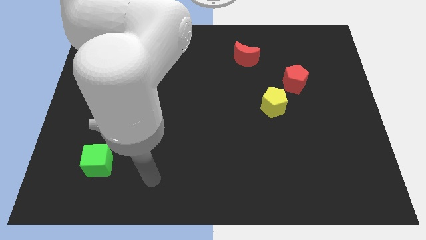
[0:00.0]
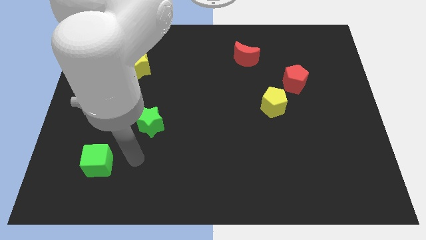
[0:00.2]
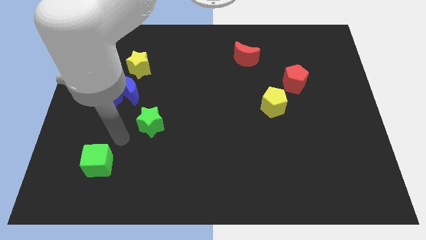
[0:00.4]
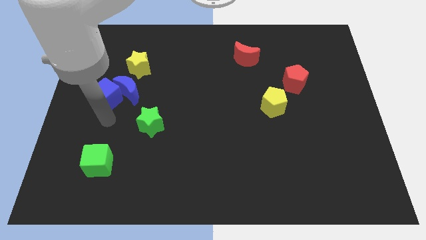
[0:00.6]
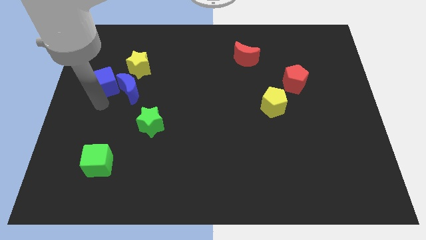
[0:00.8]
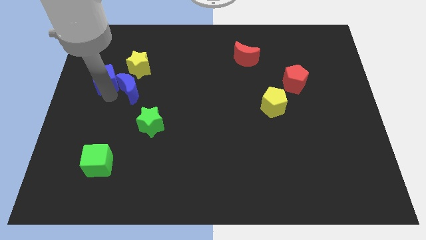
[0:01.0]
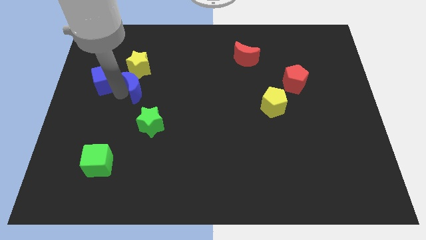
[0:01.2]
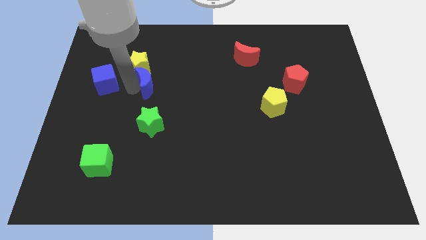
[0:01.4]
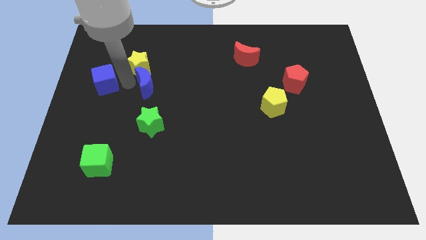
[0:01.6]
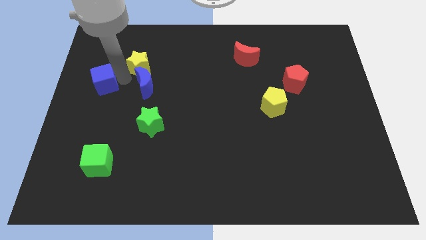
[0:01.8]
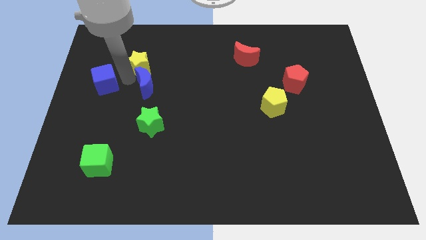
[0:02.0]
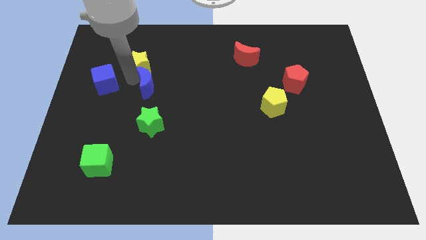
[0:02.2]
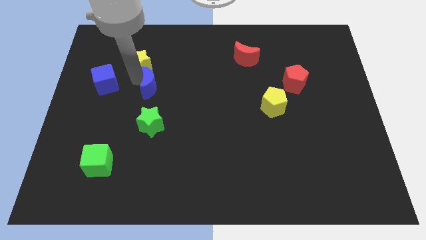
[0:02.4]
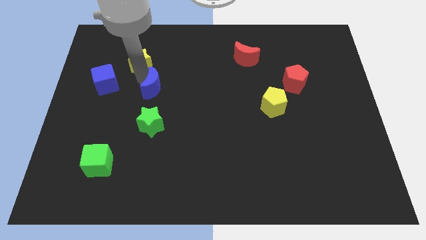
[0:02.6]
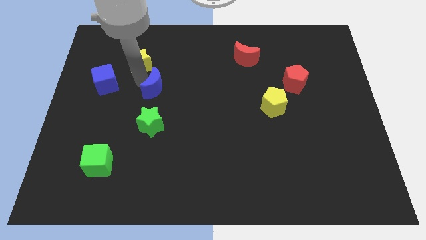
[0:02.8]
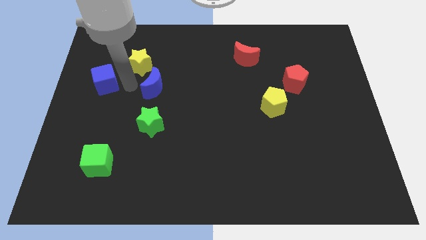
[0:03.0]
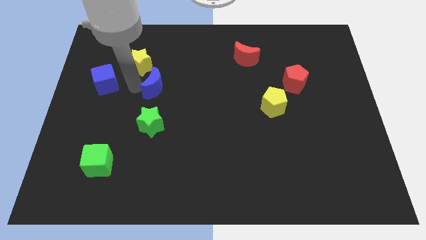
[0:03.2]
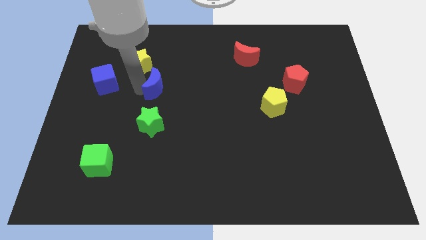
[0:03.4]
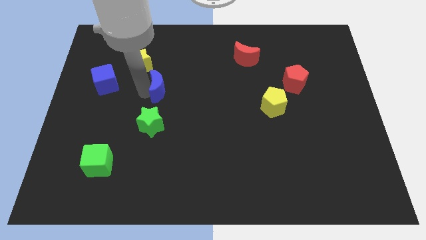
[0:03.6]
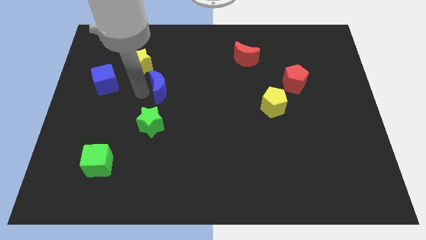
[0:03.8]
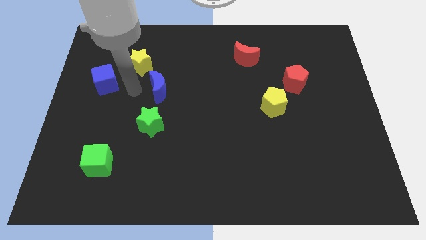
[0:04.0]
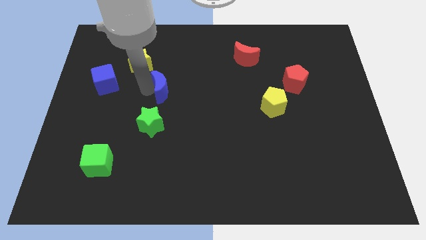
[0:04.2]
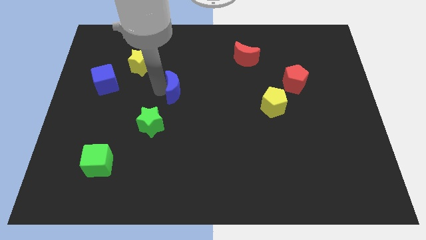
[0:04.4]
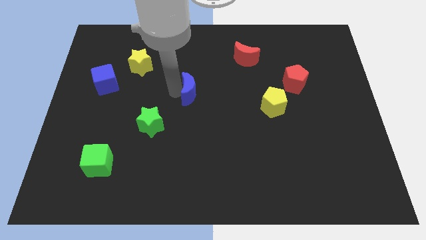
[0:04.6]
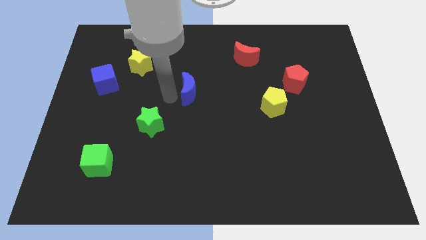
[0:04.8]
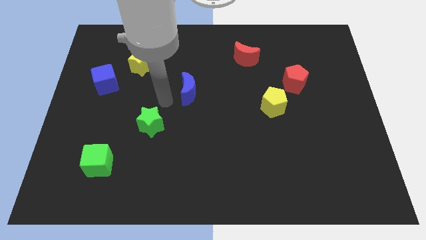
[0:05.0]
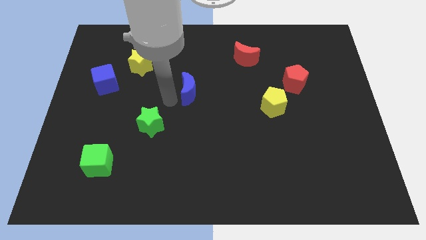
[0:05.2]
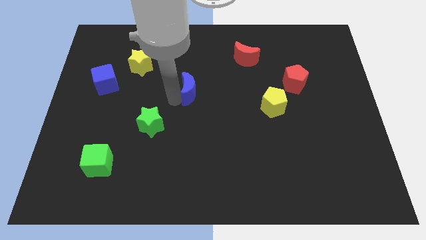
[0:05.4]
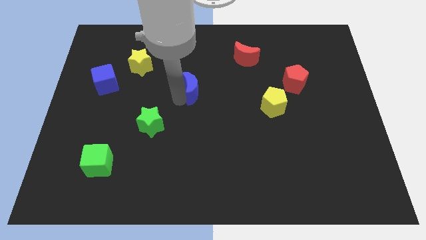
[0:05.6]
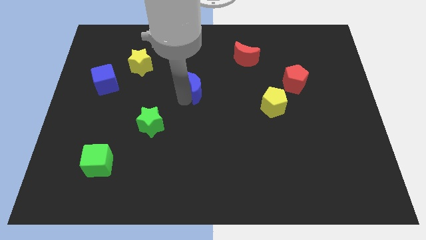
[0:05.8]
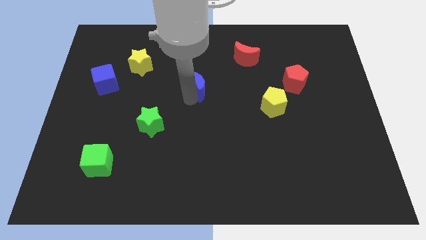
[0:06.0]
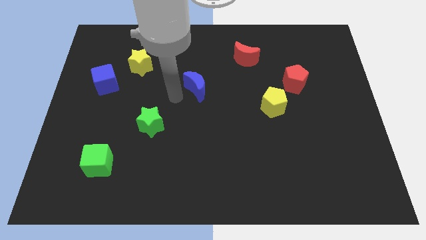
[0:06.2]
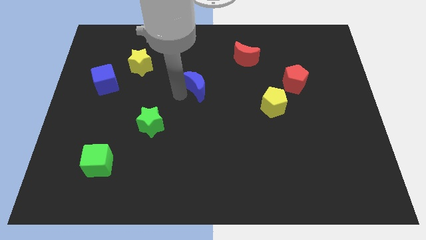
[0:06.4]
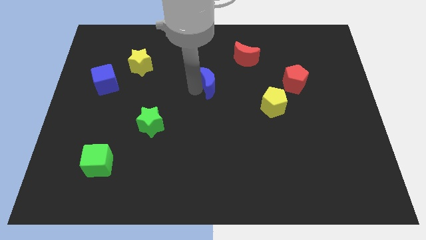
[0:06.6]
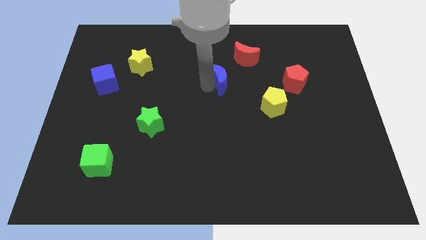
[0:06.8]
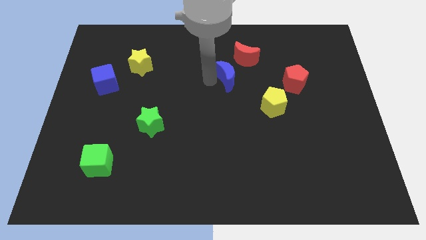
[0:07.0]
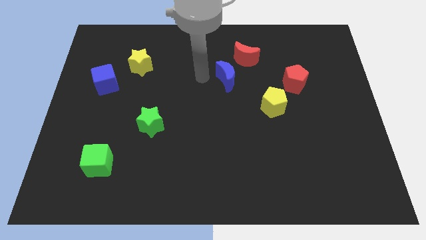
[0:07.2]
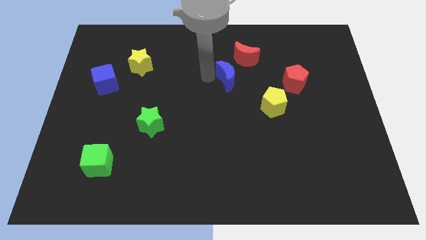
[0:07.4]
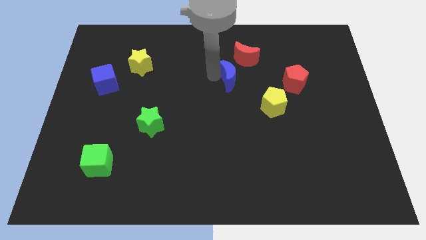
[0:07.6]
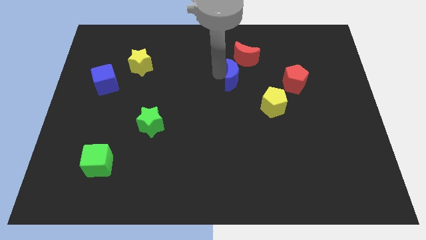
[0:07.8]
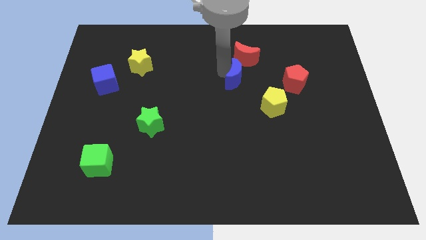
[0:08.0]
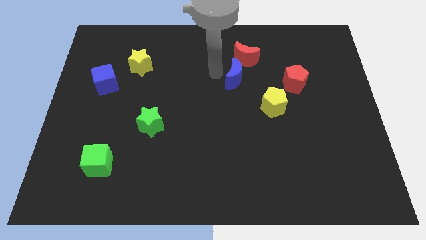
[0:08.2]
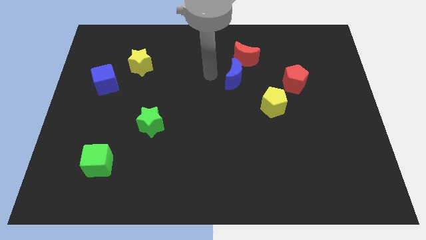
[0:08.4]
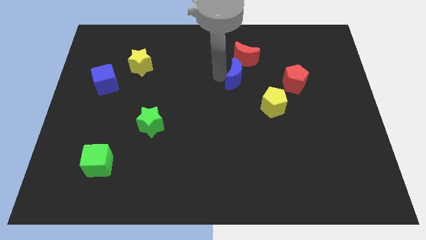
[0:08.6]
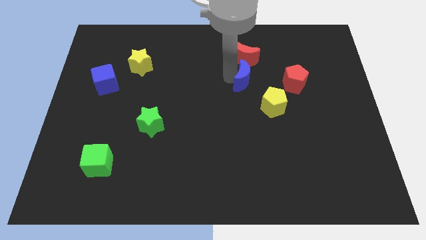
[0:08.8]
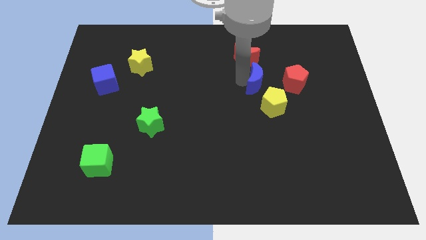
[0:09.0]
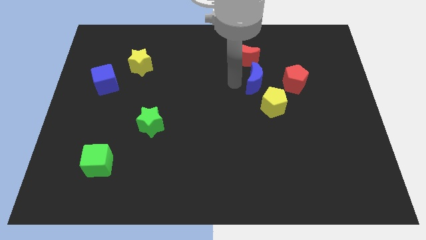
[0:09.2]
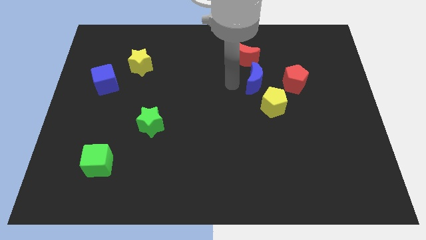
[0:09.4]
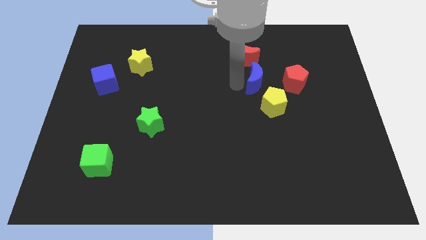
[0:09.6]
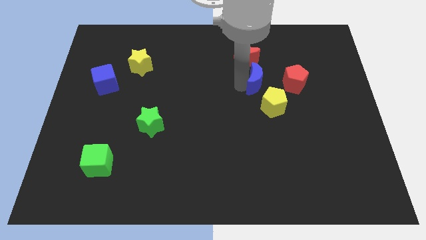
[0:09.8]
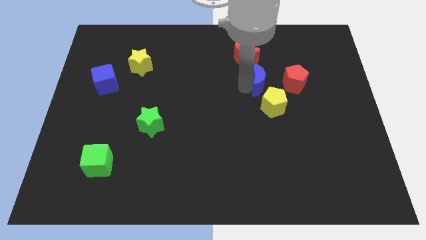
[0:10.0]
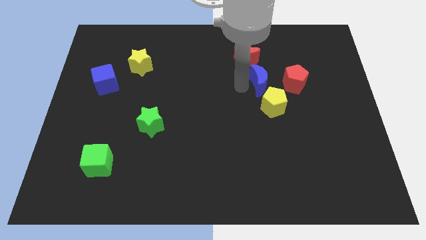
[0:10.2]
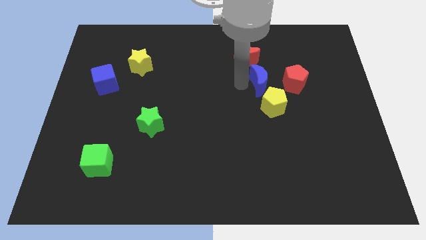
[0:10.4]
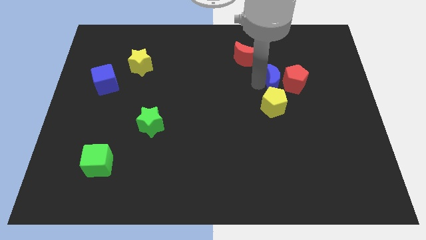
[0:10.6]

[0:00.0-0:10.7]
slide the blue moon next to the red pentagon

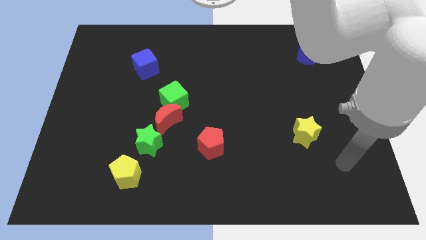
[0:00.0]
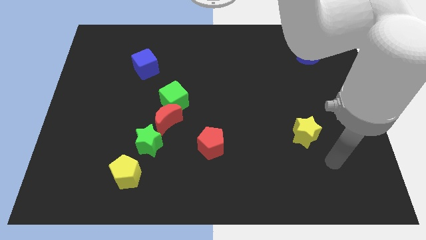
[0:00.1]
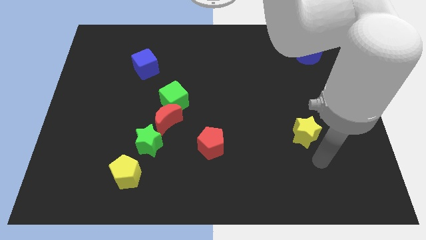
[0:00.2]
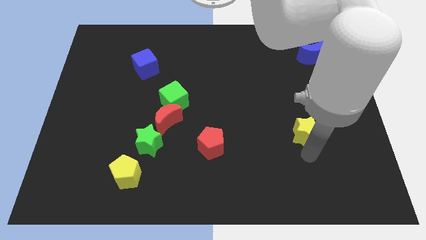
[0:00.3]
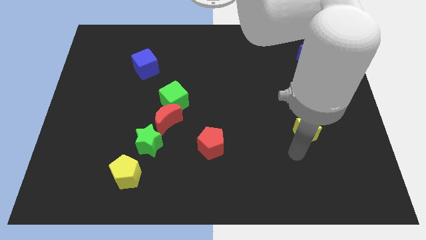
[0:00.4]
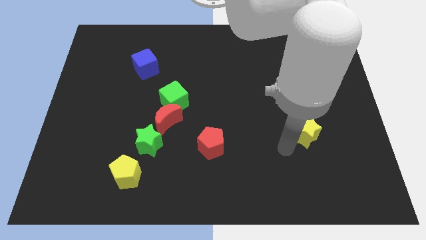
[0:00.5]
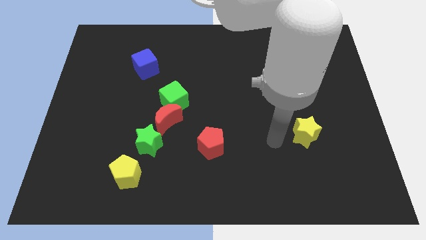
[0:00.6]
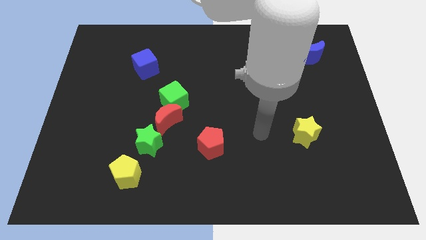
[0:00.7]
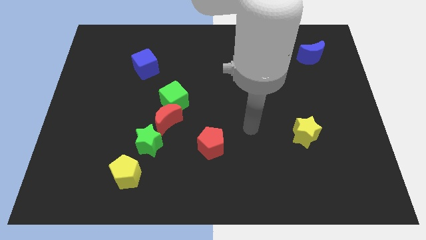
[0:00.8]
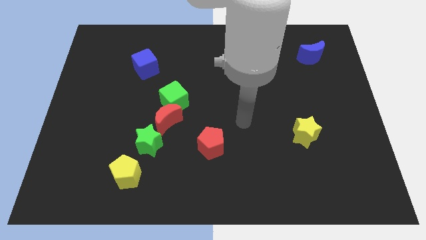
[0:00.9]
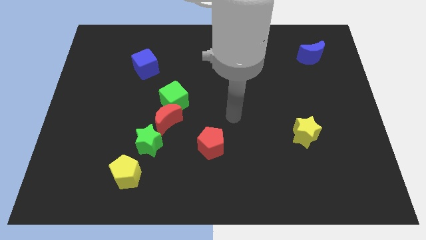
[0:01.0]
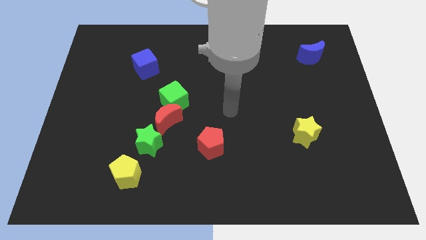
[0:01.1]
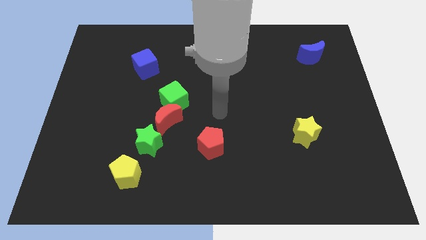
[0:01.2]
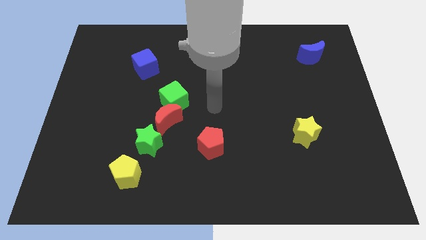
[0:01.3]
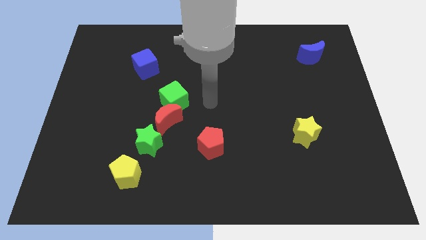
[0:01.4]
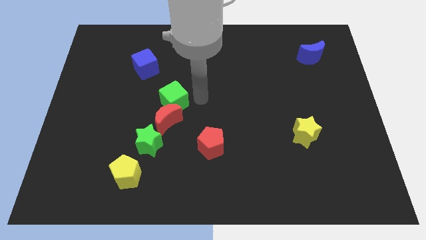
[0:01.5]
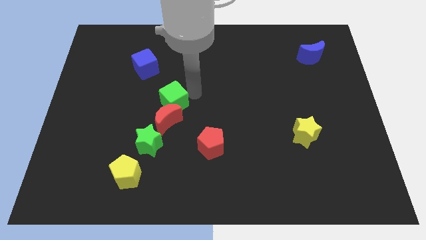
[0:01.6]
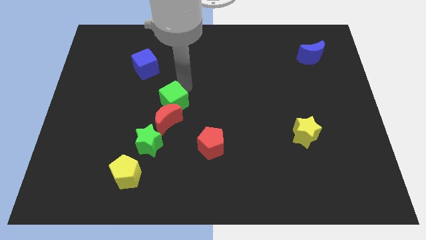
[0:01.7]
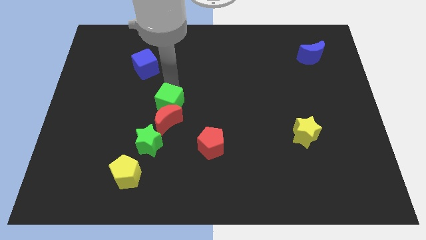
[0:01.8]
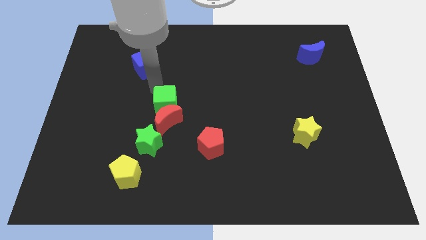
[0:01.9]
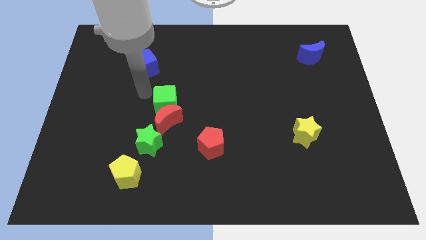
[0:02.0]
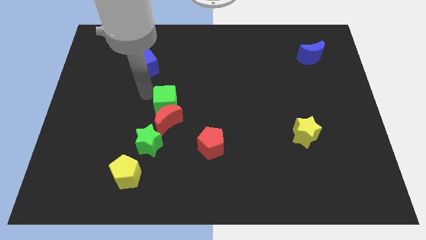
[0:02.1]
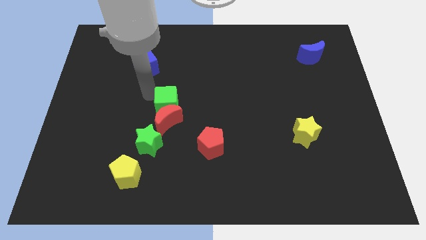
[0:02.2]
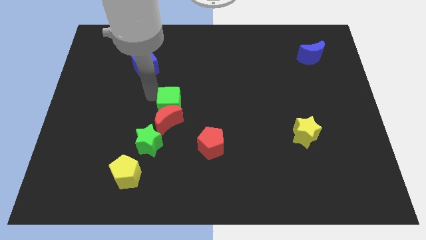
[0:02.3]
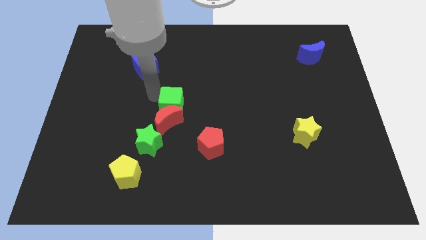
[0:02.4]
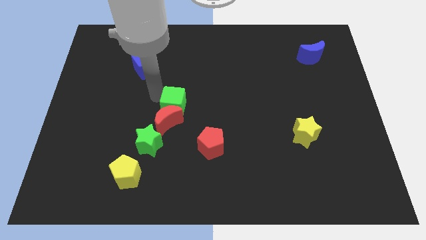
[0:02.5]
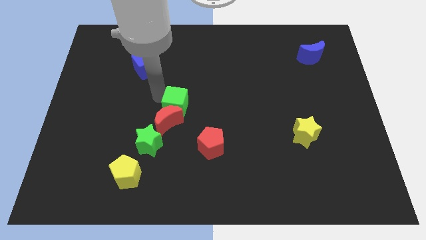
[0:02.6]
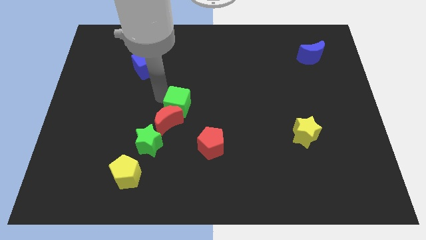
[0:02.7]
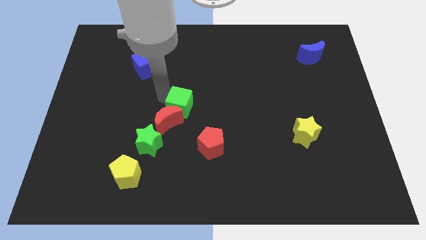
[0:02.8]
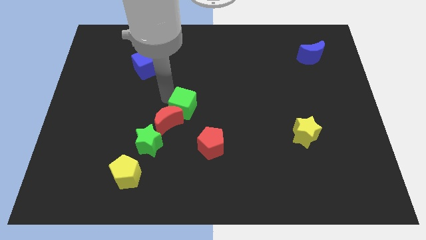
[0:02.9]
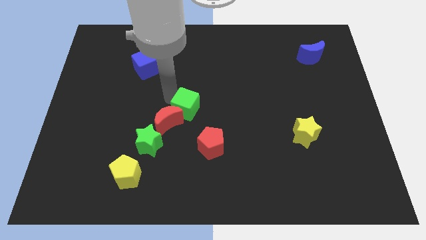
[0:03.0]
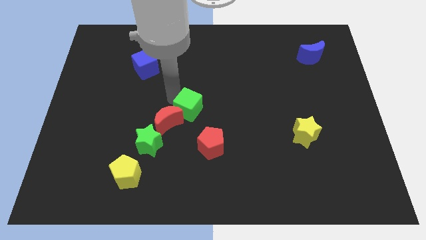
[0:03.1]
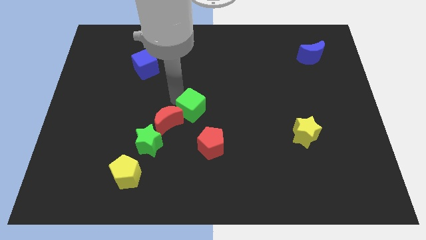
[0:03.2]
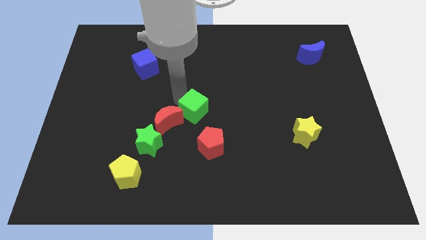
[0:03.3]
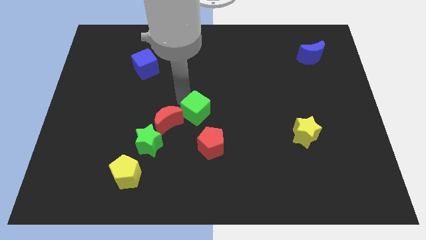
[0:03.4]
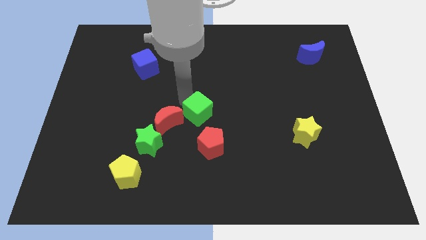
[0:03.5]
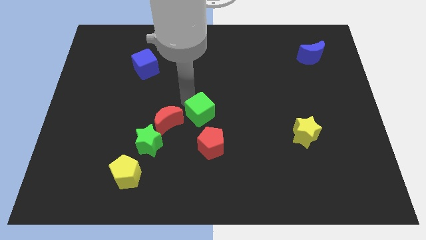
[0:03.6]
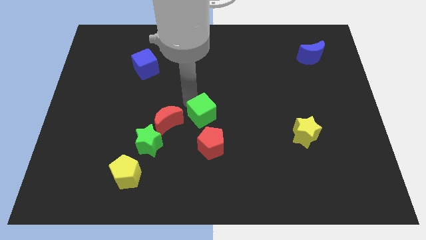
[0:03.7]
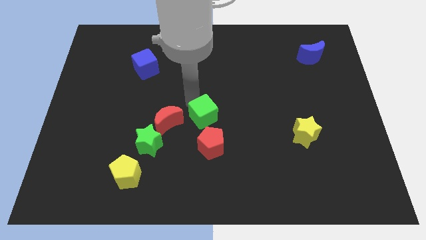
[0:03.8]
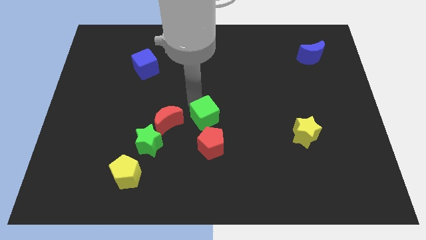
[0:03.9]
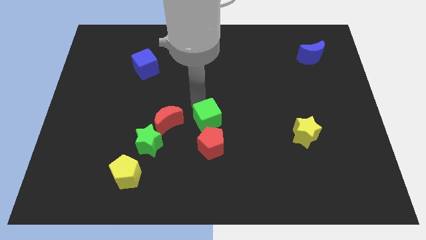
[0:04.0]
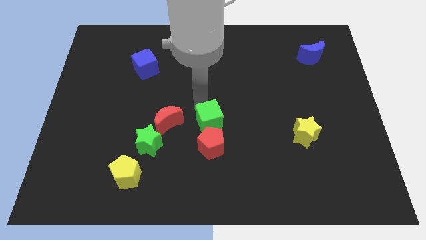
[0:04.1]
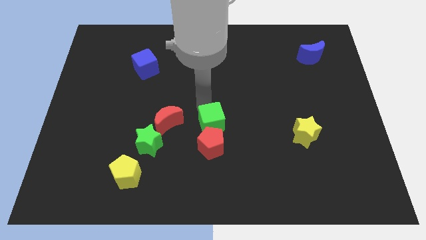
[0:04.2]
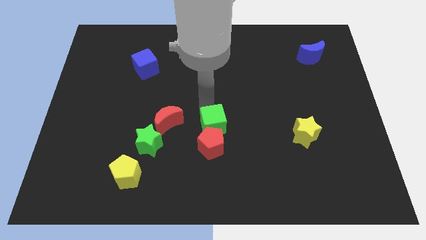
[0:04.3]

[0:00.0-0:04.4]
slide the green cube to the red pentagon
